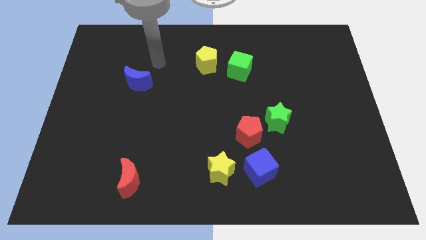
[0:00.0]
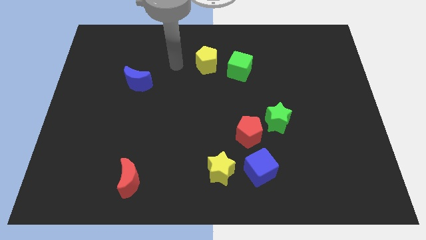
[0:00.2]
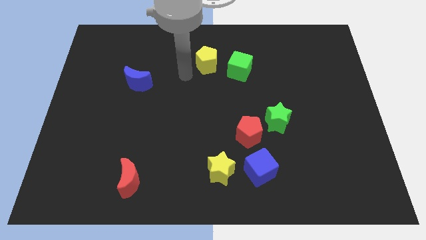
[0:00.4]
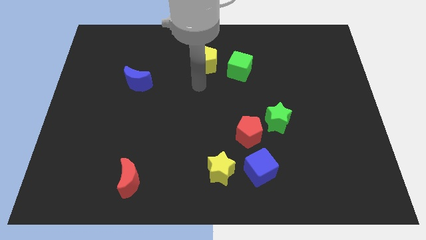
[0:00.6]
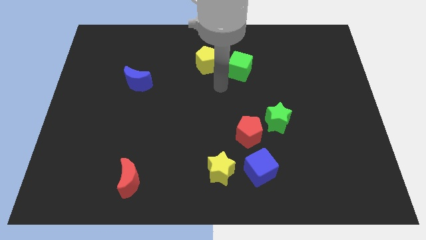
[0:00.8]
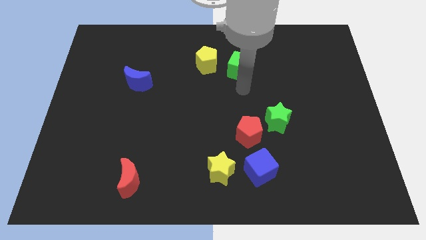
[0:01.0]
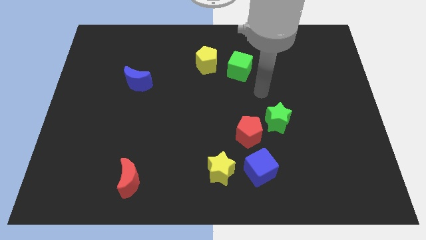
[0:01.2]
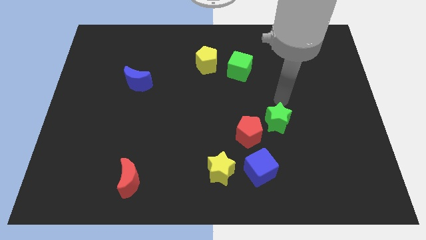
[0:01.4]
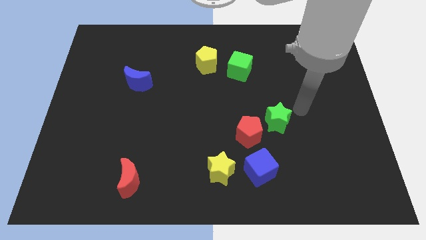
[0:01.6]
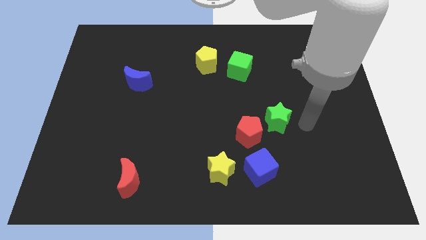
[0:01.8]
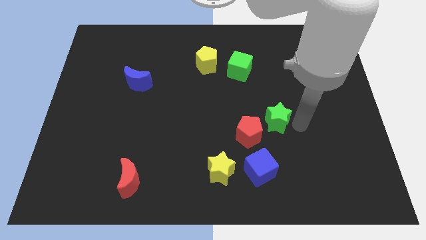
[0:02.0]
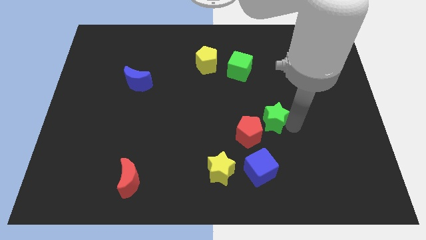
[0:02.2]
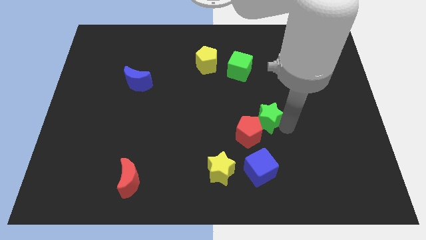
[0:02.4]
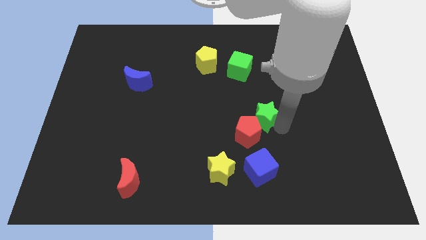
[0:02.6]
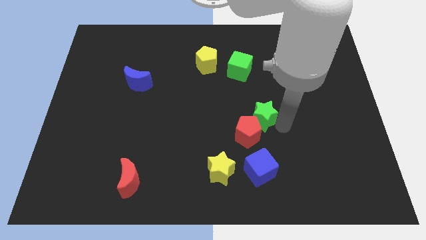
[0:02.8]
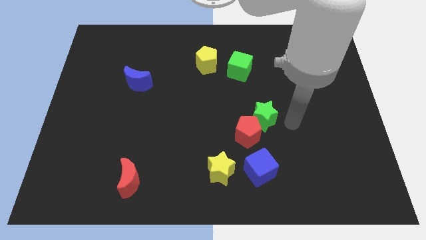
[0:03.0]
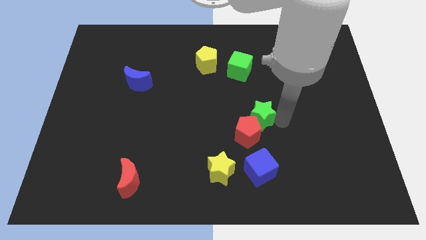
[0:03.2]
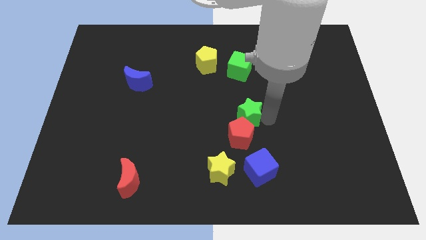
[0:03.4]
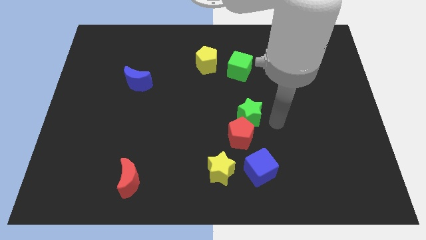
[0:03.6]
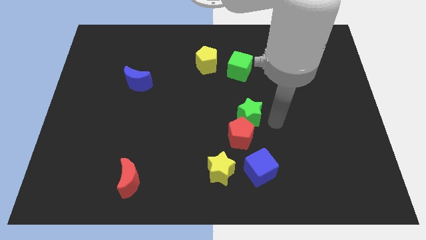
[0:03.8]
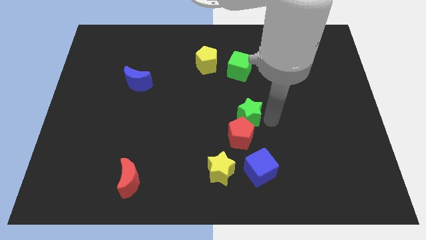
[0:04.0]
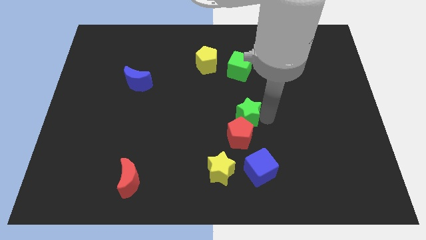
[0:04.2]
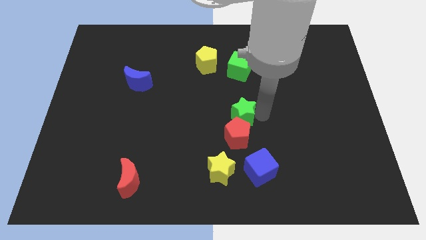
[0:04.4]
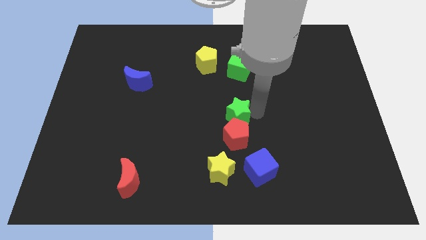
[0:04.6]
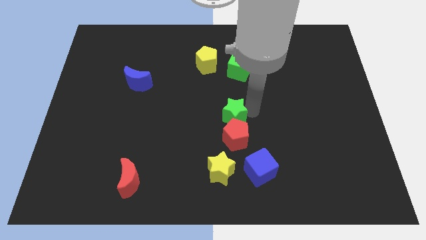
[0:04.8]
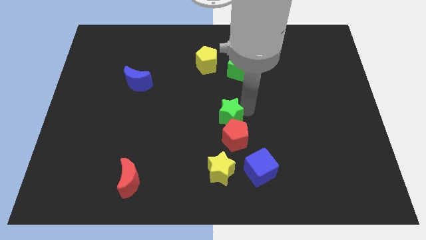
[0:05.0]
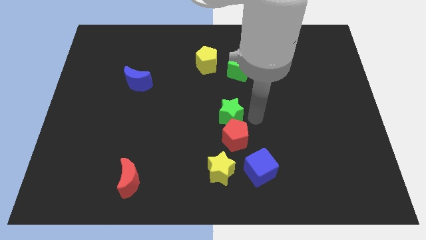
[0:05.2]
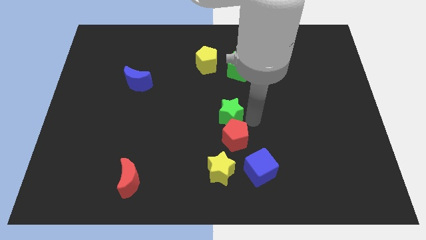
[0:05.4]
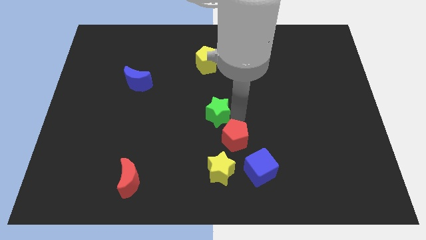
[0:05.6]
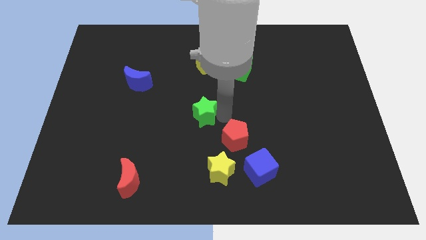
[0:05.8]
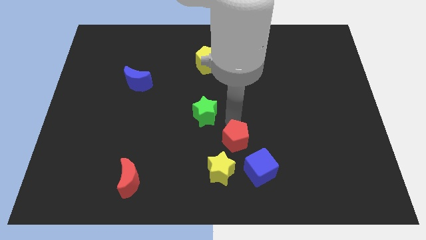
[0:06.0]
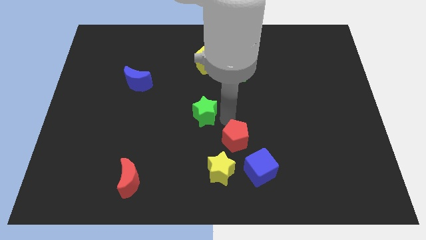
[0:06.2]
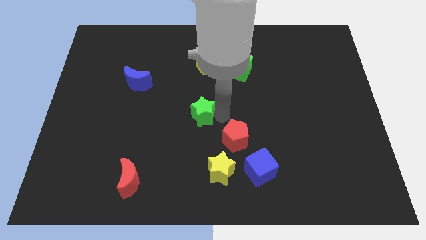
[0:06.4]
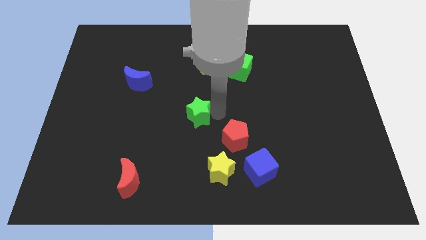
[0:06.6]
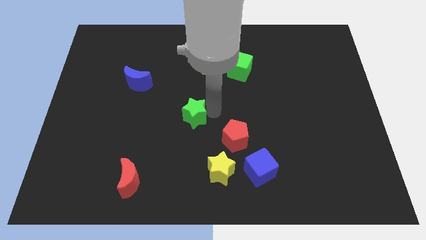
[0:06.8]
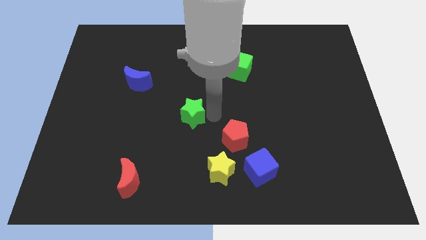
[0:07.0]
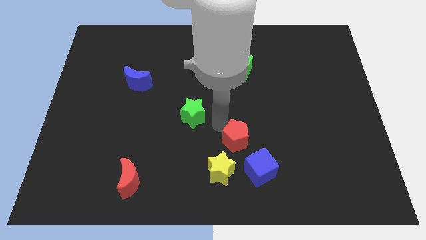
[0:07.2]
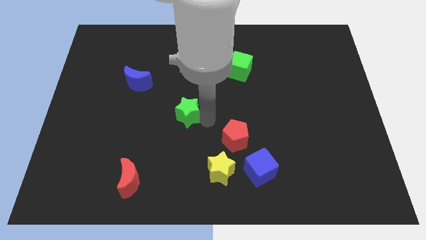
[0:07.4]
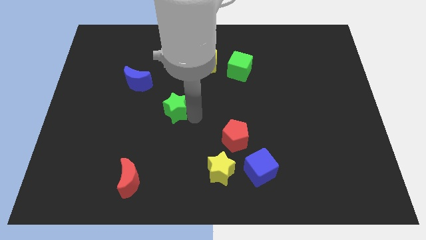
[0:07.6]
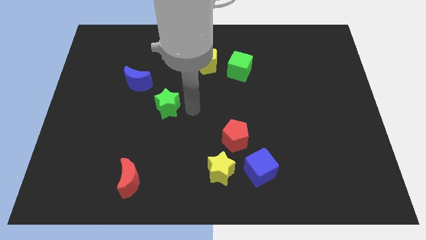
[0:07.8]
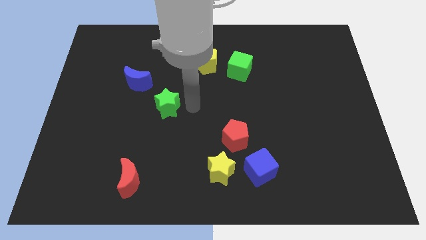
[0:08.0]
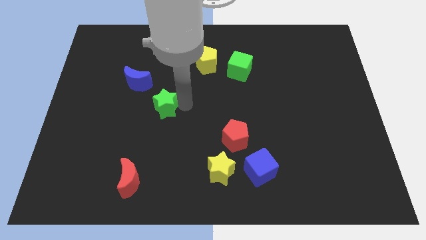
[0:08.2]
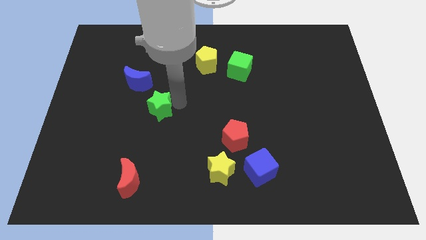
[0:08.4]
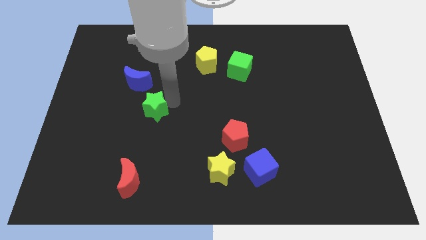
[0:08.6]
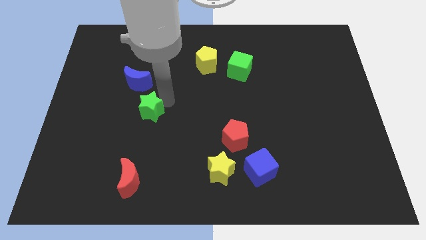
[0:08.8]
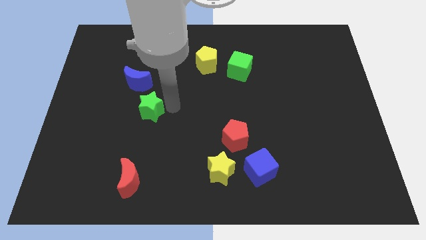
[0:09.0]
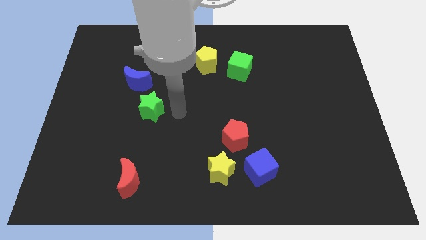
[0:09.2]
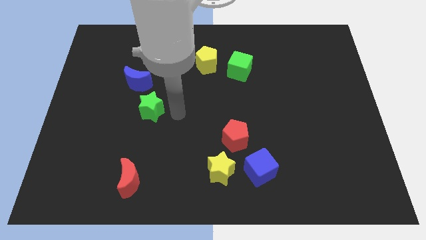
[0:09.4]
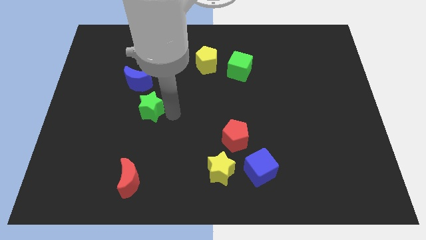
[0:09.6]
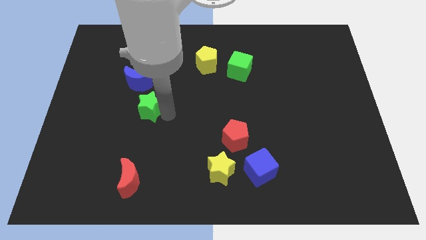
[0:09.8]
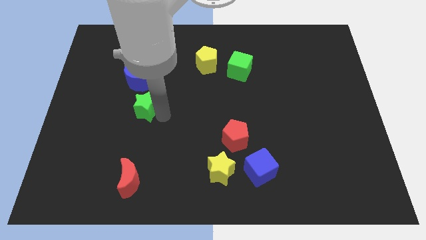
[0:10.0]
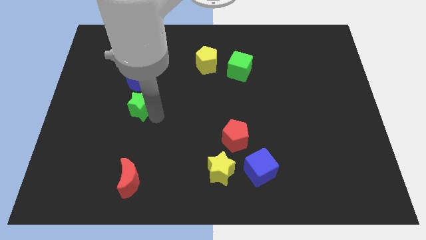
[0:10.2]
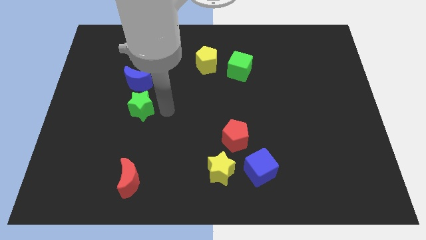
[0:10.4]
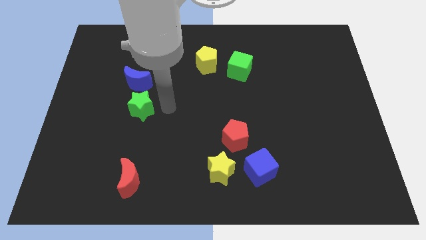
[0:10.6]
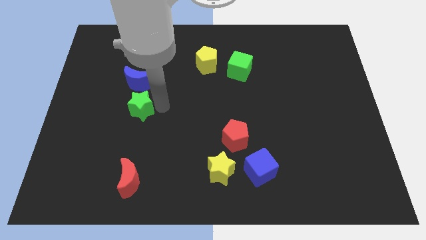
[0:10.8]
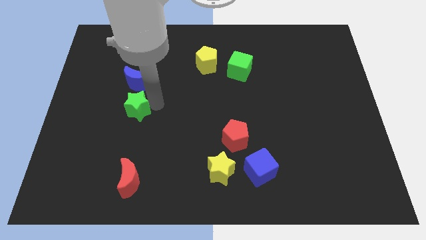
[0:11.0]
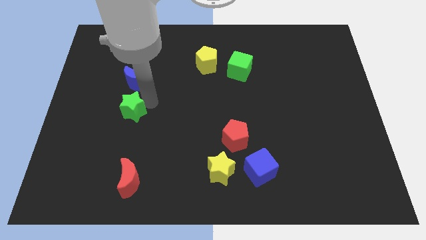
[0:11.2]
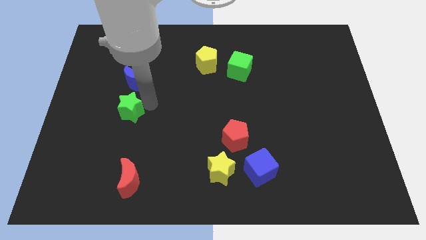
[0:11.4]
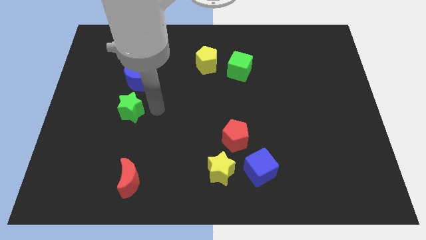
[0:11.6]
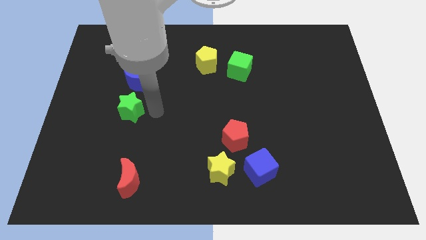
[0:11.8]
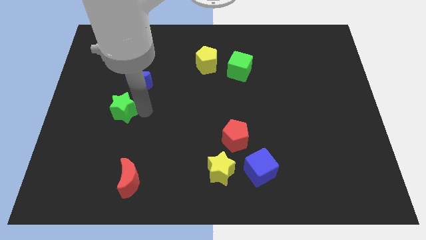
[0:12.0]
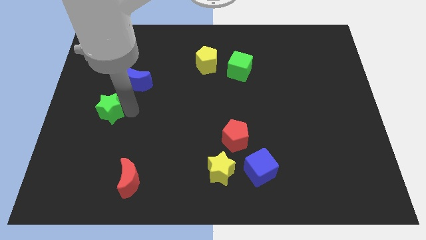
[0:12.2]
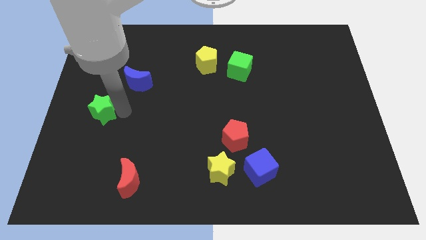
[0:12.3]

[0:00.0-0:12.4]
move the green star to the left side
